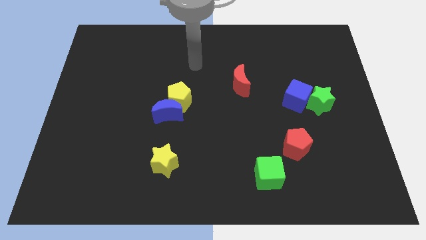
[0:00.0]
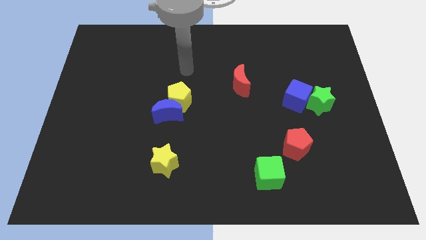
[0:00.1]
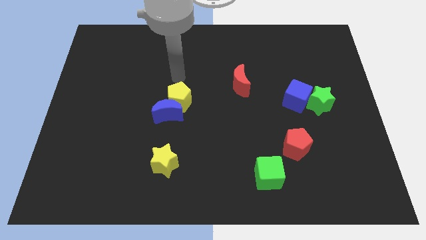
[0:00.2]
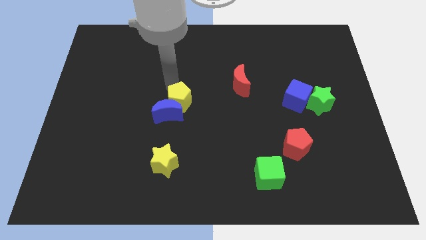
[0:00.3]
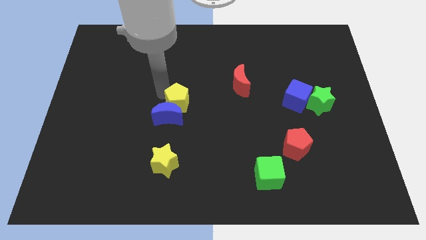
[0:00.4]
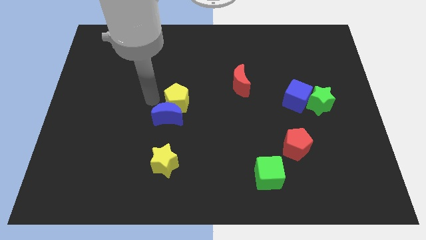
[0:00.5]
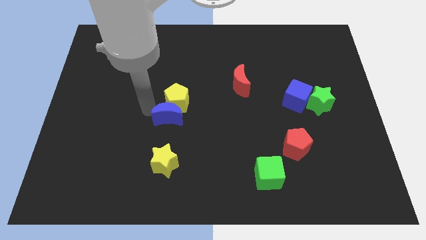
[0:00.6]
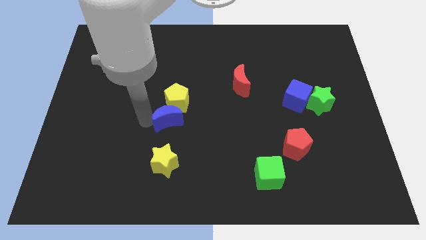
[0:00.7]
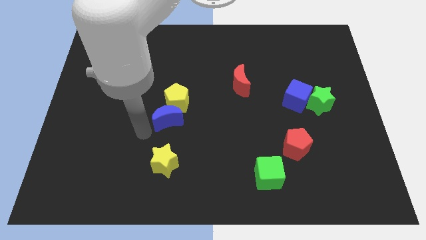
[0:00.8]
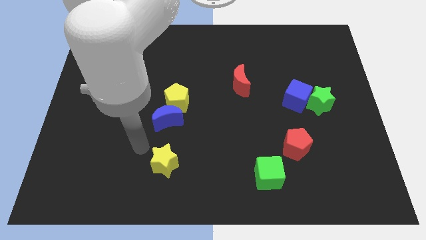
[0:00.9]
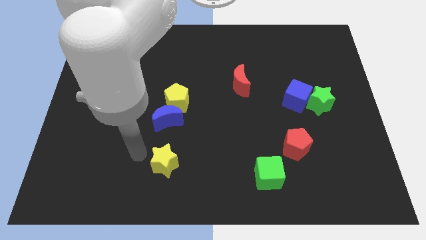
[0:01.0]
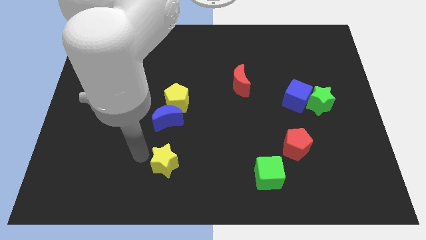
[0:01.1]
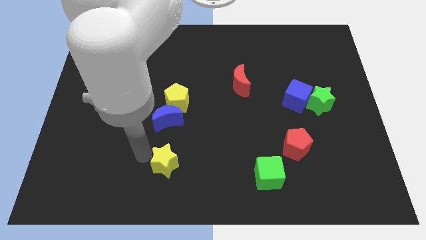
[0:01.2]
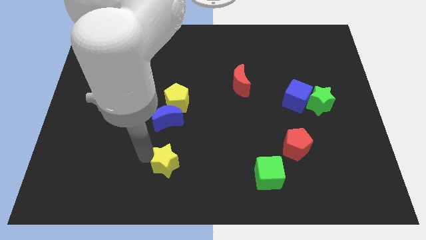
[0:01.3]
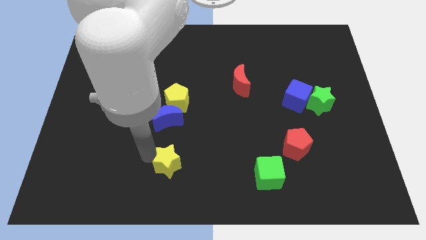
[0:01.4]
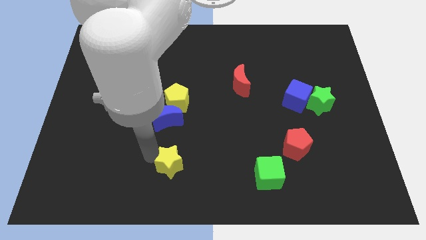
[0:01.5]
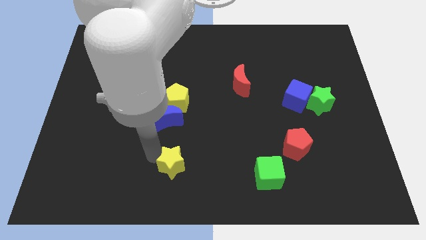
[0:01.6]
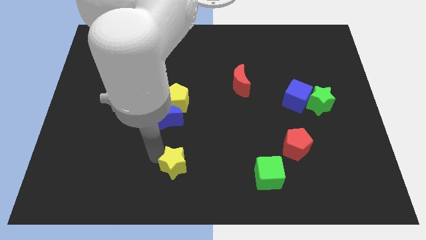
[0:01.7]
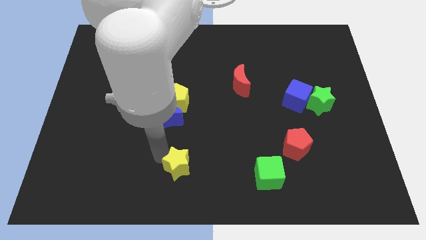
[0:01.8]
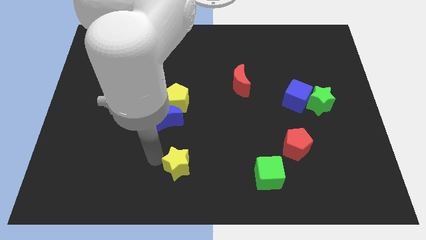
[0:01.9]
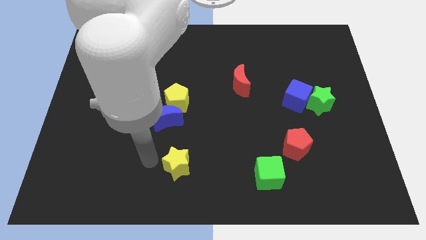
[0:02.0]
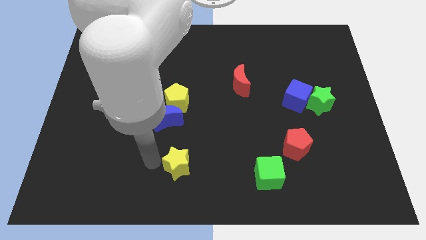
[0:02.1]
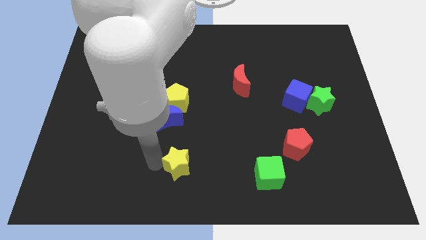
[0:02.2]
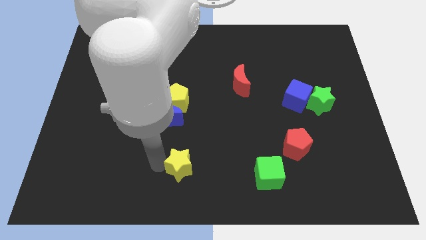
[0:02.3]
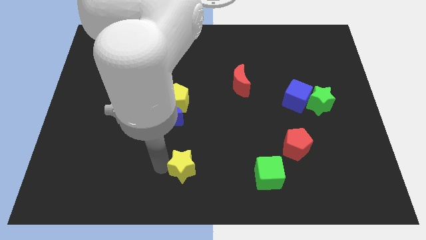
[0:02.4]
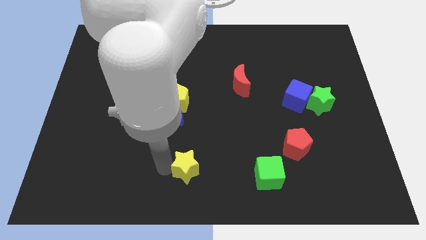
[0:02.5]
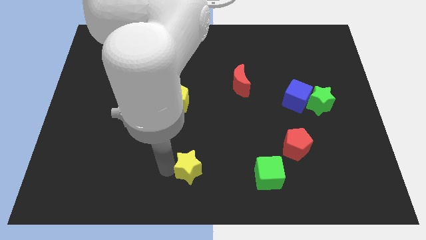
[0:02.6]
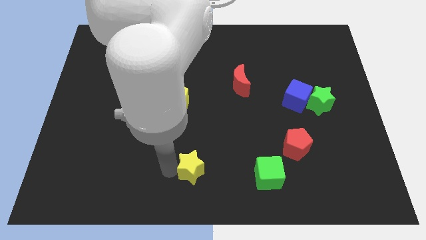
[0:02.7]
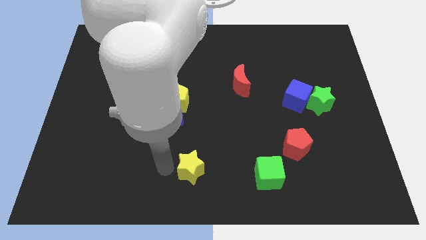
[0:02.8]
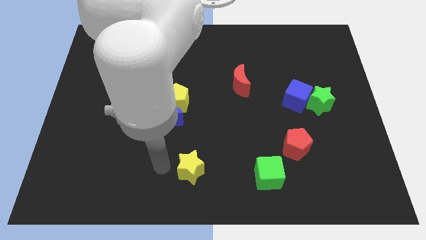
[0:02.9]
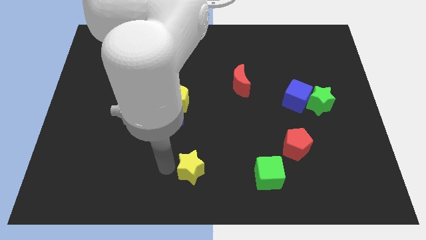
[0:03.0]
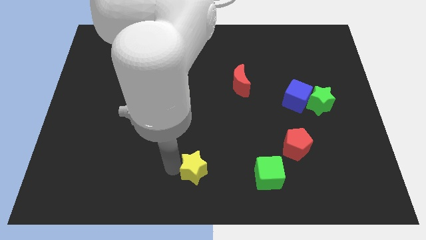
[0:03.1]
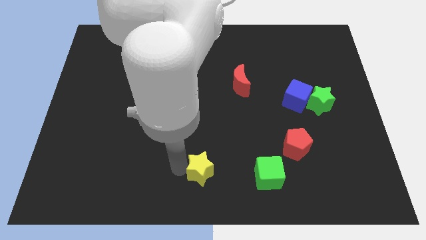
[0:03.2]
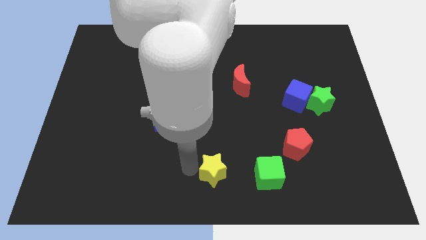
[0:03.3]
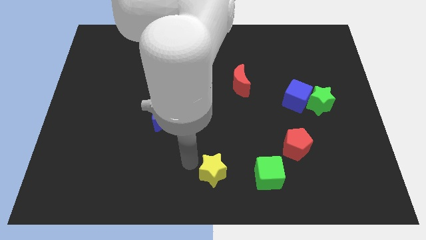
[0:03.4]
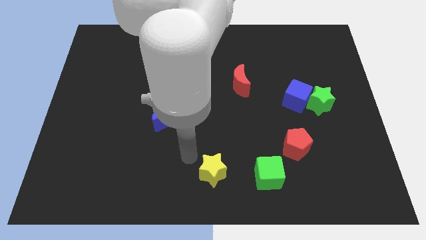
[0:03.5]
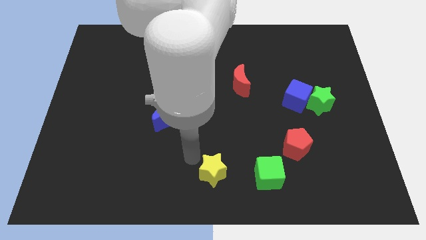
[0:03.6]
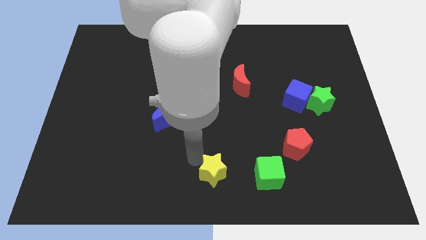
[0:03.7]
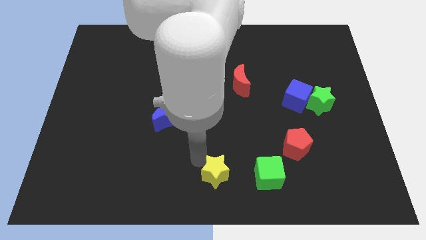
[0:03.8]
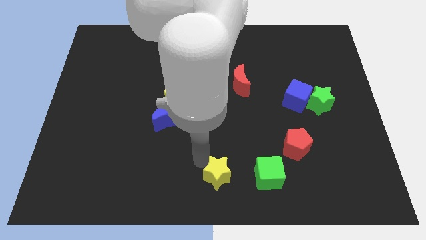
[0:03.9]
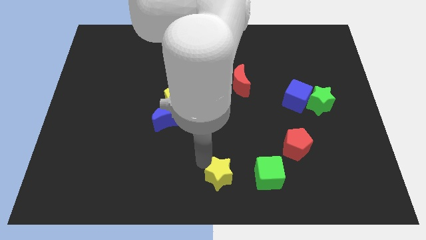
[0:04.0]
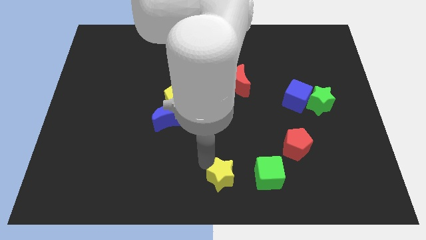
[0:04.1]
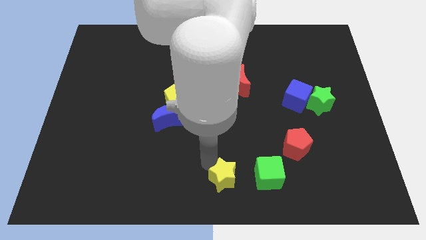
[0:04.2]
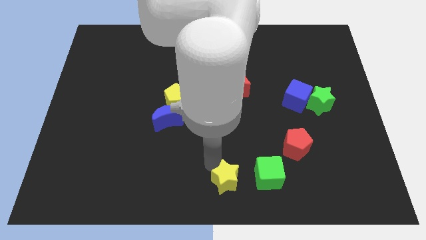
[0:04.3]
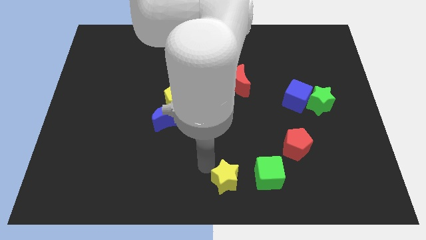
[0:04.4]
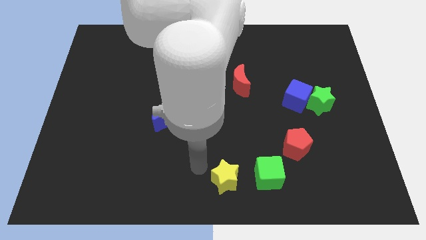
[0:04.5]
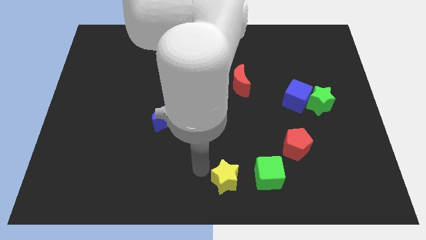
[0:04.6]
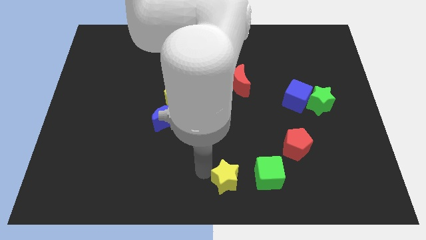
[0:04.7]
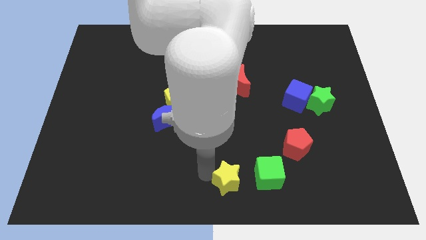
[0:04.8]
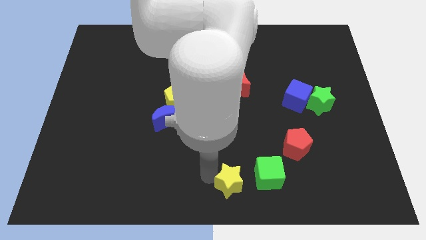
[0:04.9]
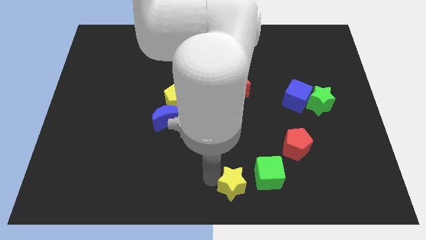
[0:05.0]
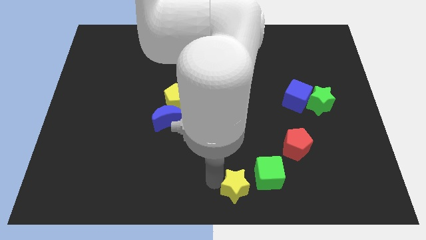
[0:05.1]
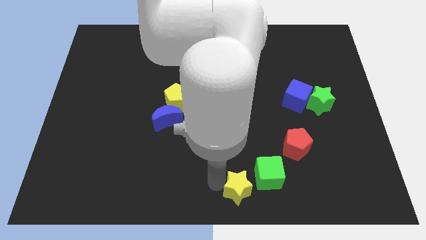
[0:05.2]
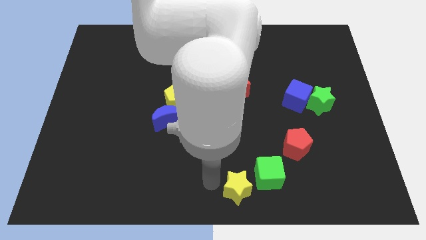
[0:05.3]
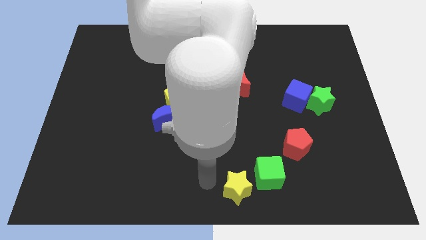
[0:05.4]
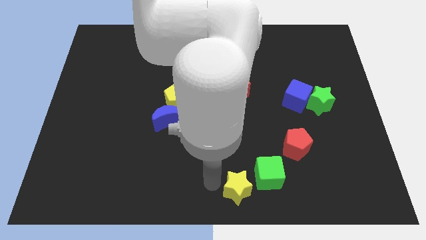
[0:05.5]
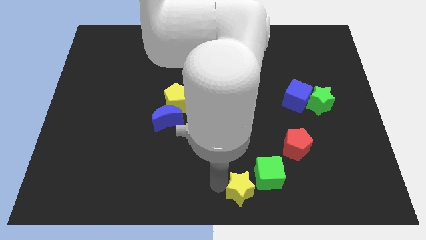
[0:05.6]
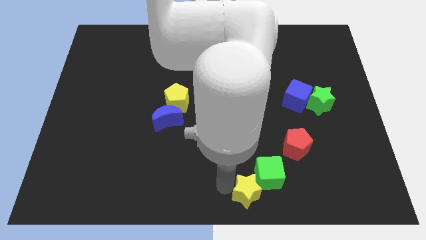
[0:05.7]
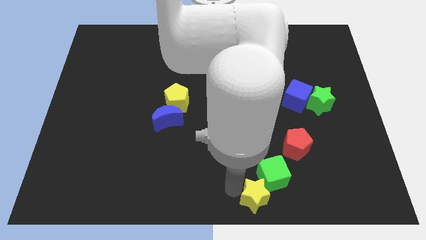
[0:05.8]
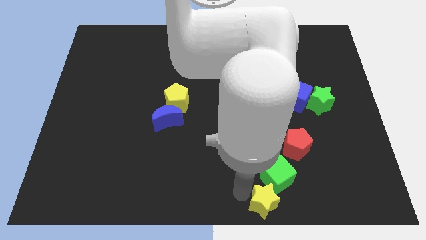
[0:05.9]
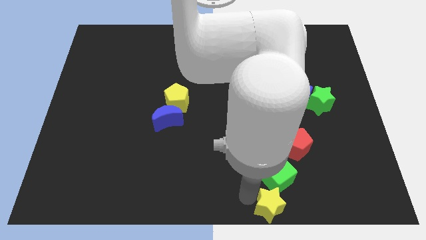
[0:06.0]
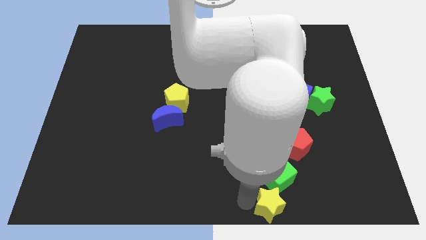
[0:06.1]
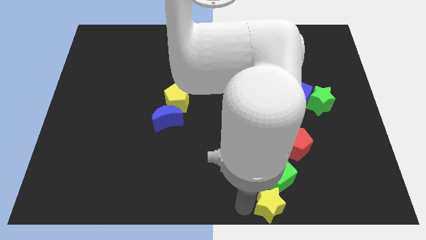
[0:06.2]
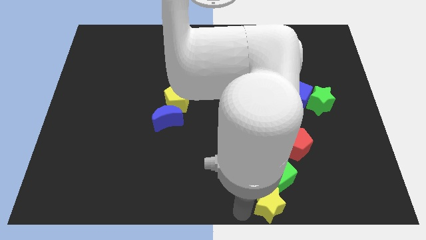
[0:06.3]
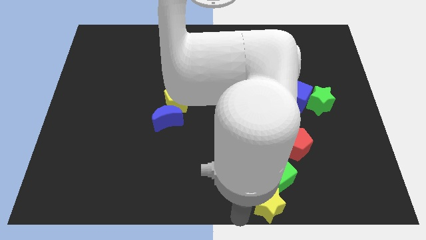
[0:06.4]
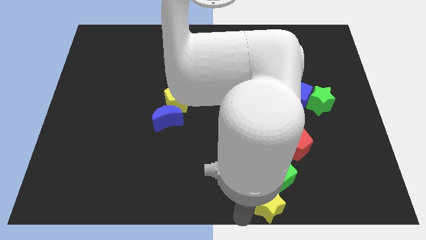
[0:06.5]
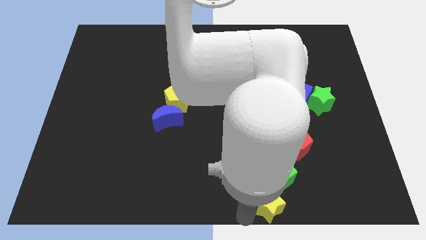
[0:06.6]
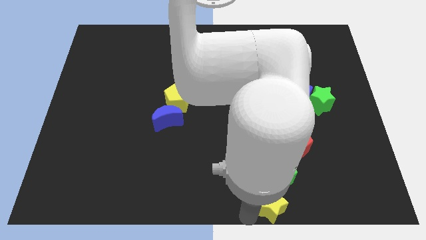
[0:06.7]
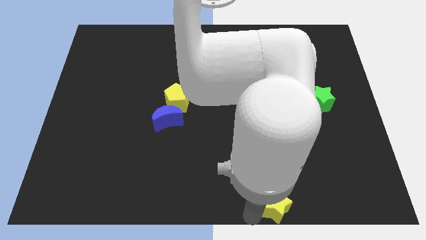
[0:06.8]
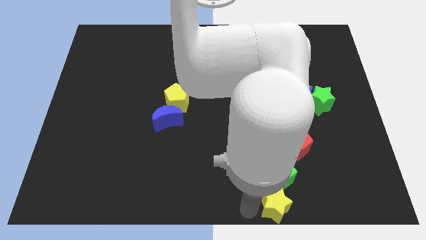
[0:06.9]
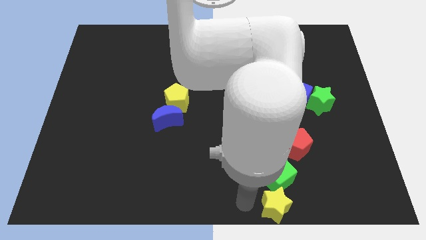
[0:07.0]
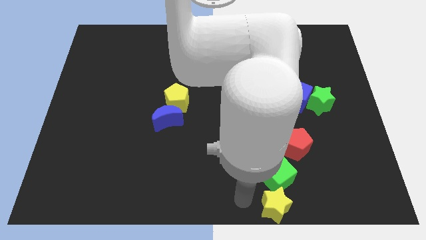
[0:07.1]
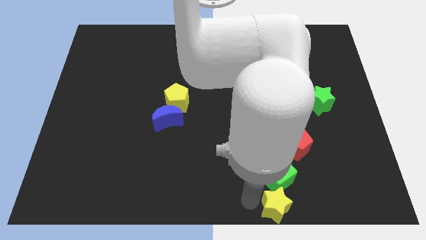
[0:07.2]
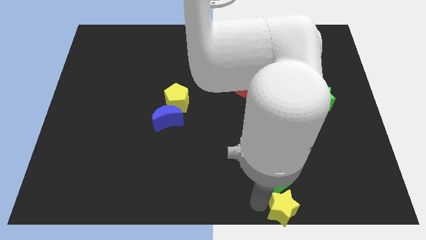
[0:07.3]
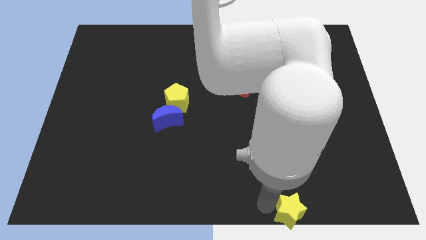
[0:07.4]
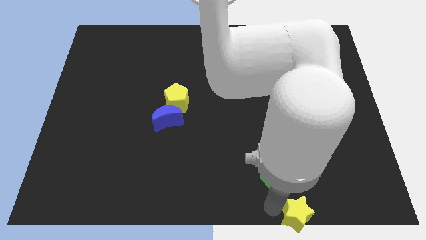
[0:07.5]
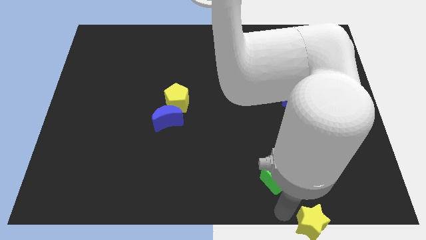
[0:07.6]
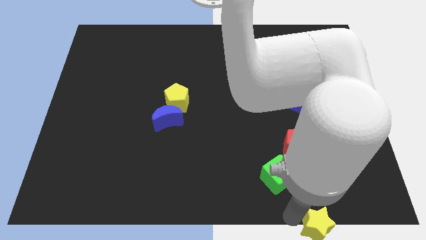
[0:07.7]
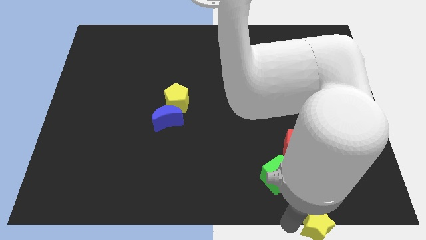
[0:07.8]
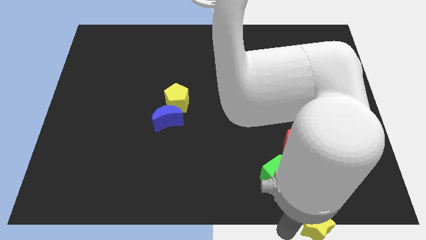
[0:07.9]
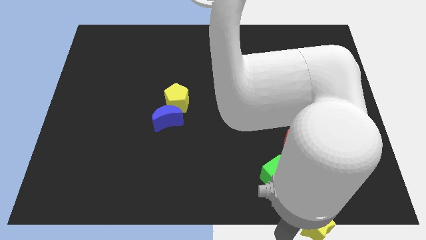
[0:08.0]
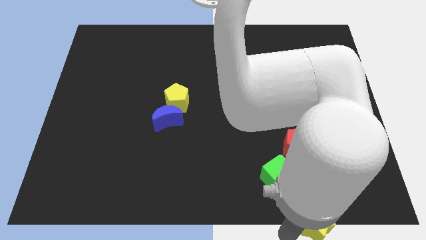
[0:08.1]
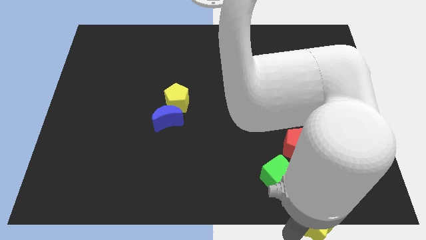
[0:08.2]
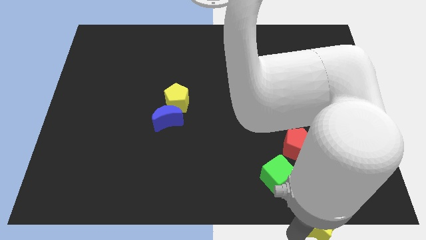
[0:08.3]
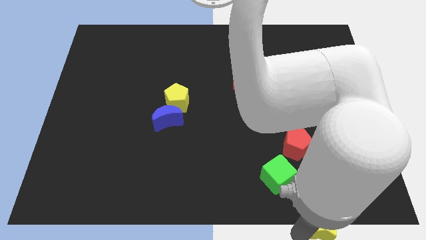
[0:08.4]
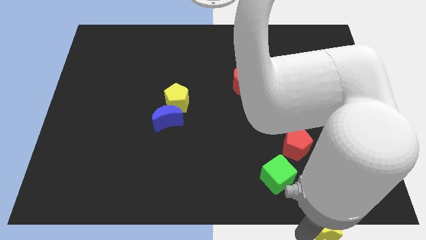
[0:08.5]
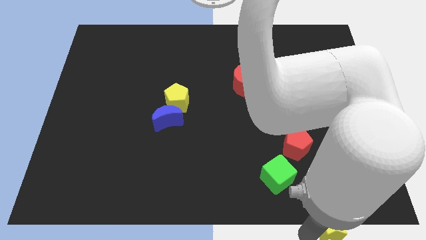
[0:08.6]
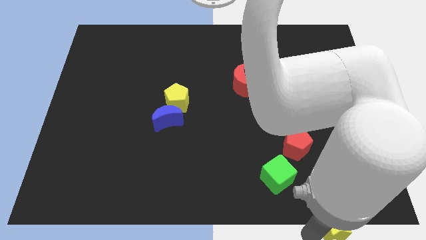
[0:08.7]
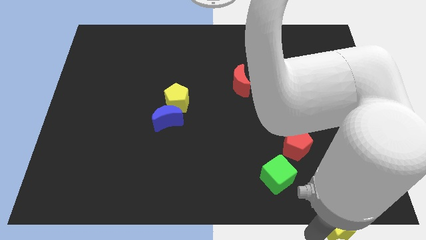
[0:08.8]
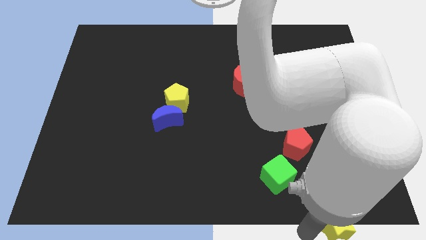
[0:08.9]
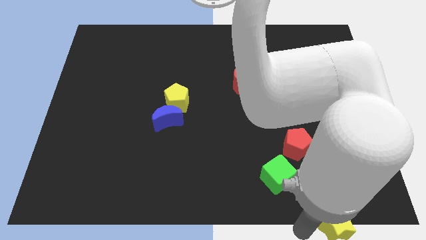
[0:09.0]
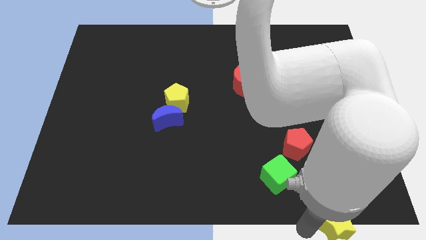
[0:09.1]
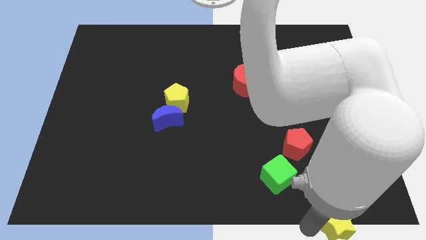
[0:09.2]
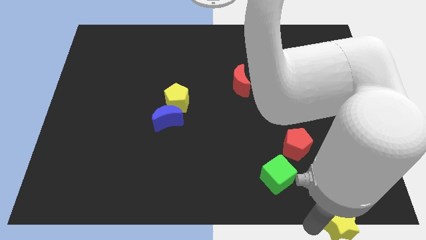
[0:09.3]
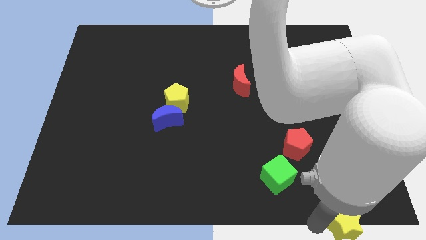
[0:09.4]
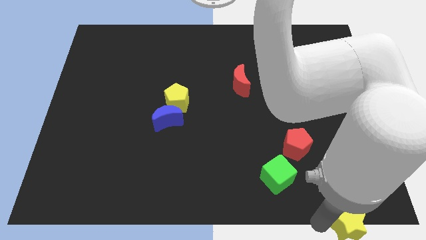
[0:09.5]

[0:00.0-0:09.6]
put the yellow star to the bottom right of the board
